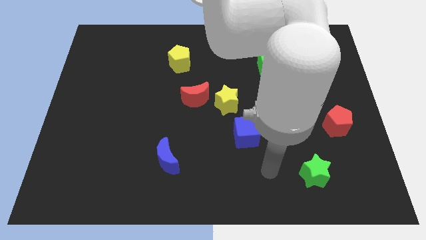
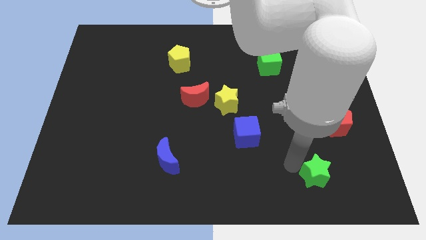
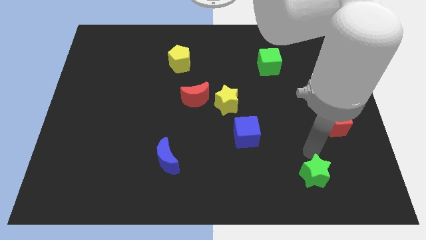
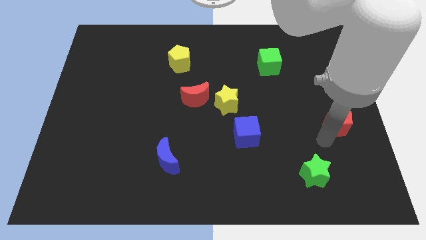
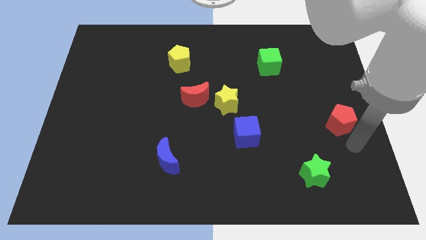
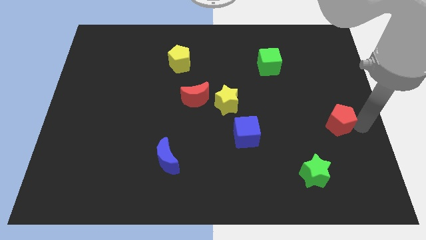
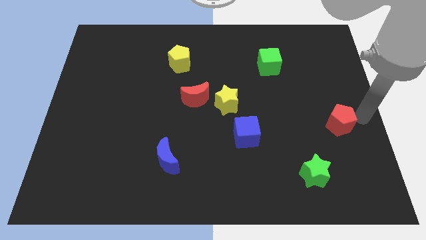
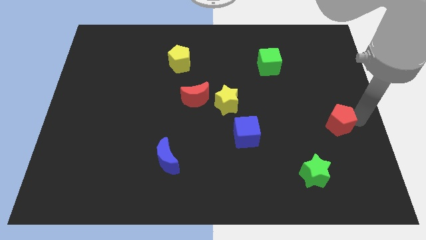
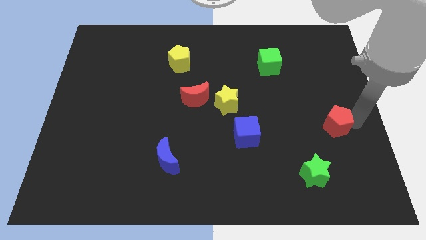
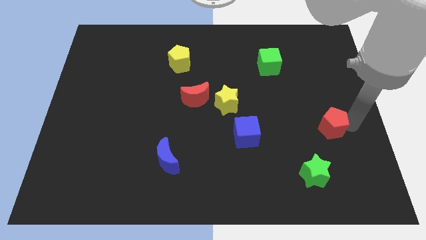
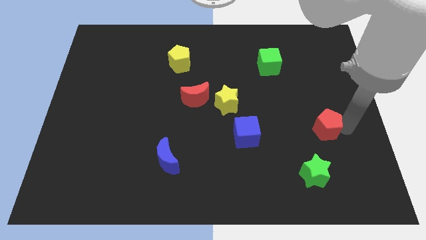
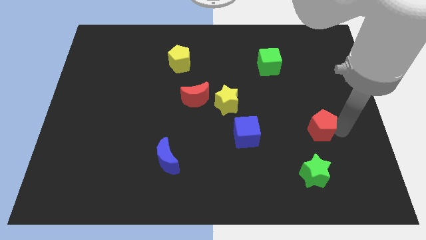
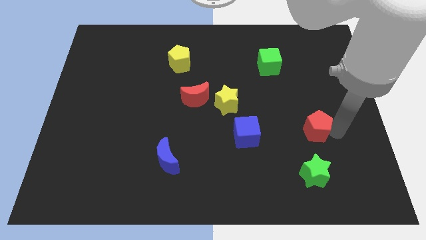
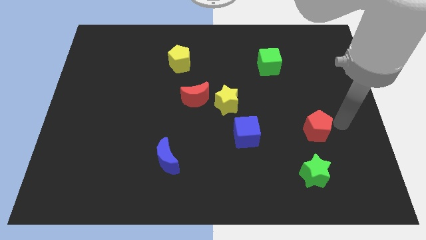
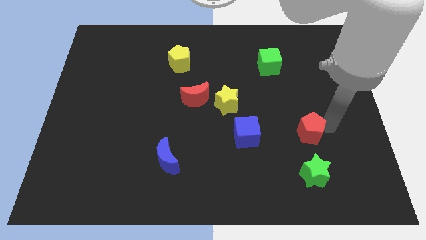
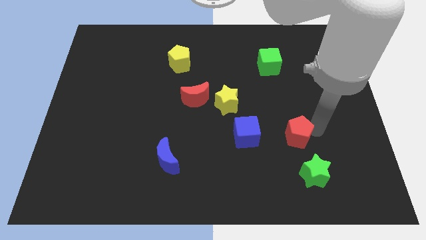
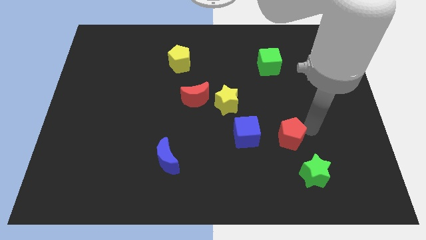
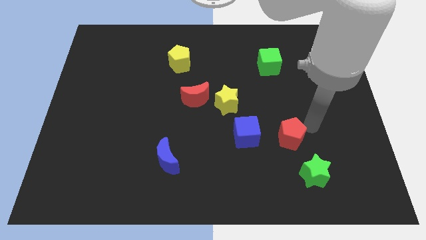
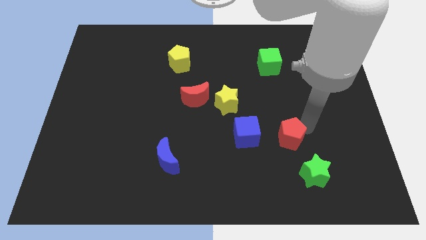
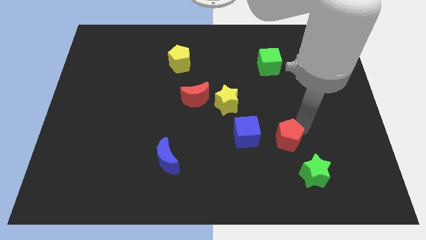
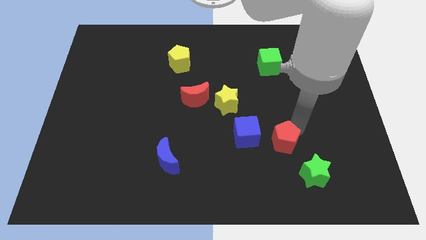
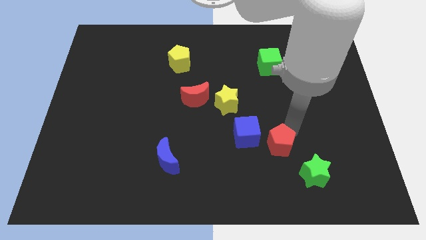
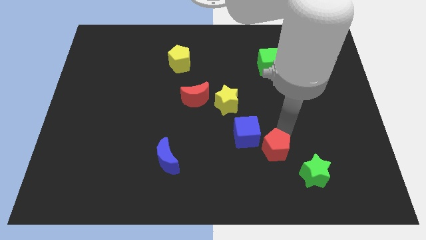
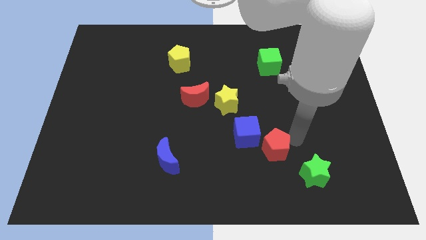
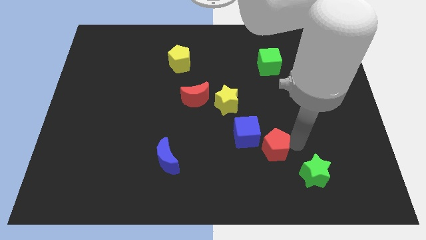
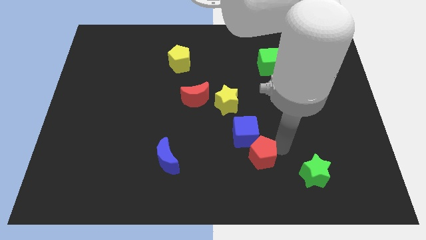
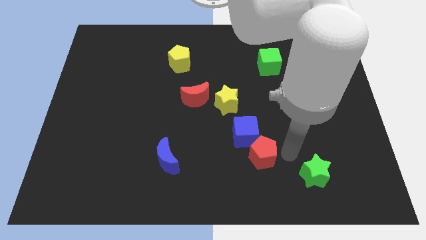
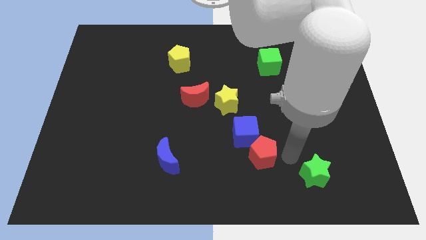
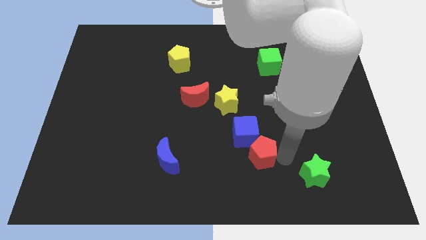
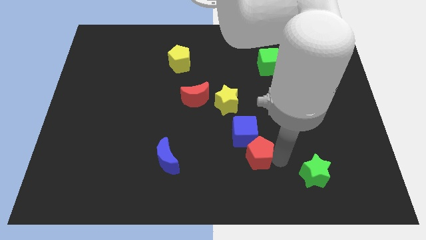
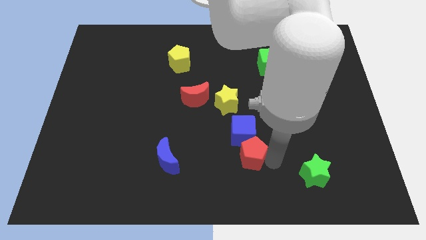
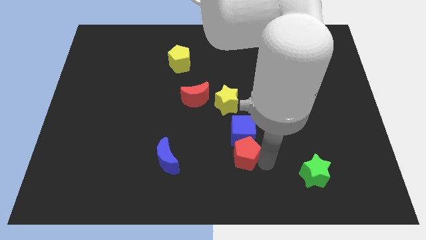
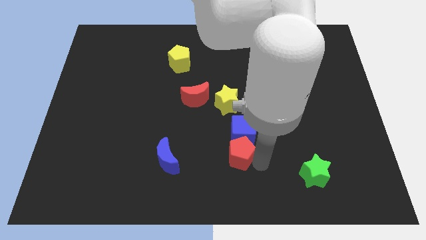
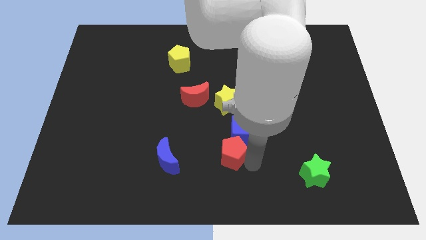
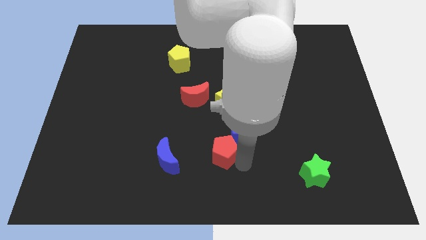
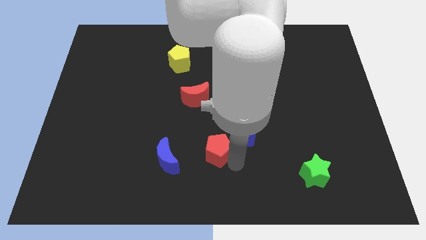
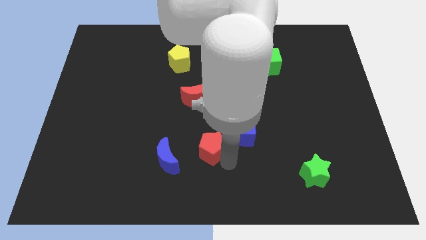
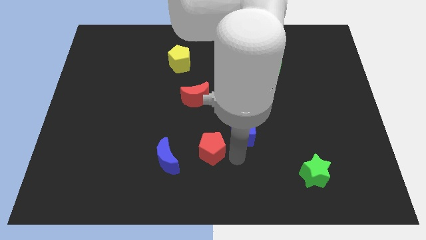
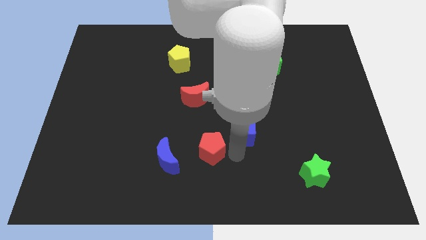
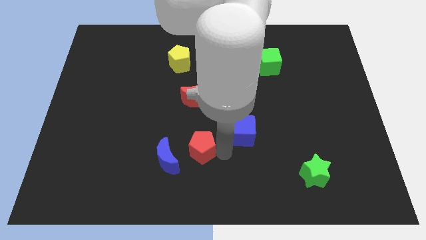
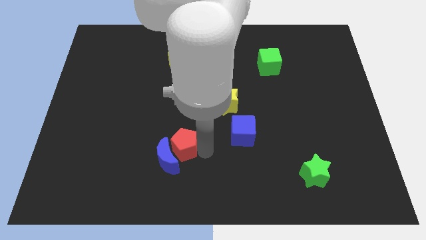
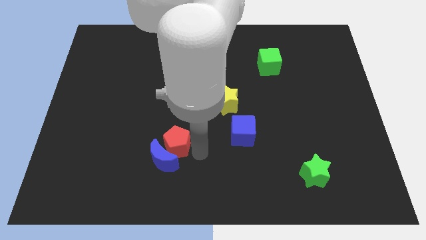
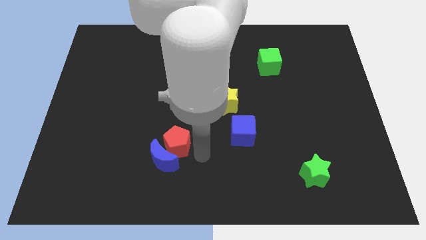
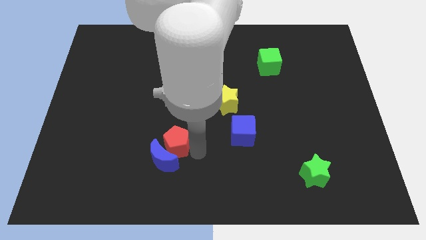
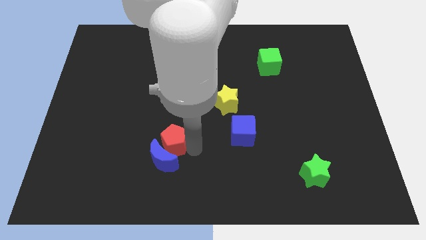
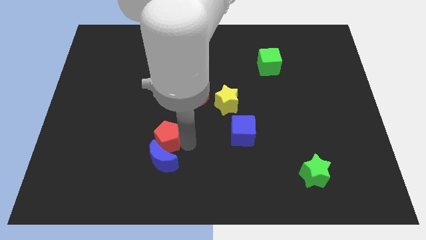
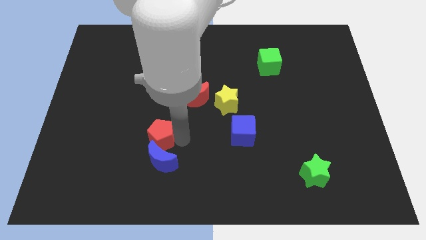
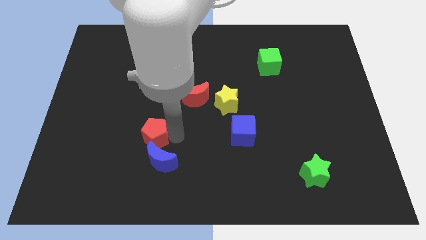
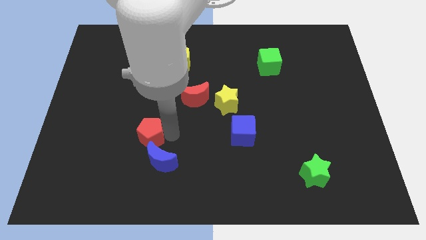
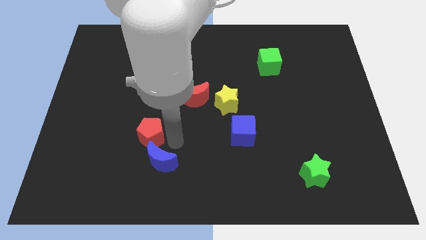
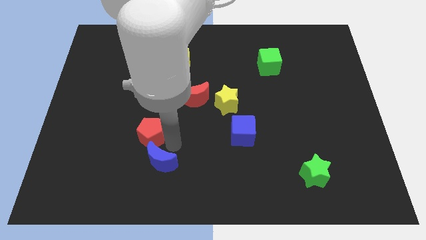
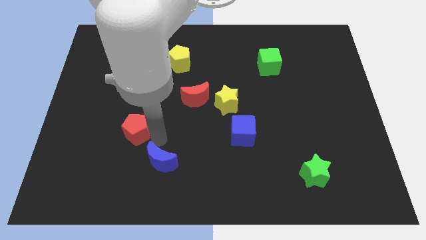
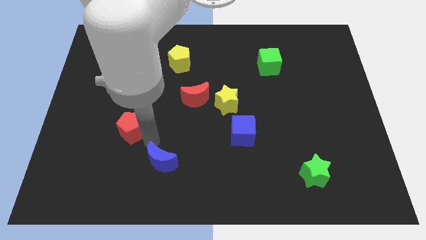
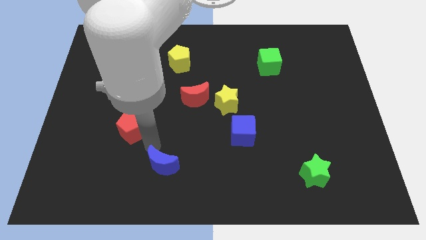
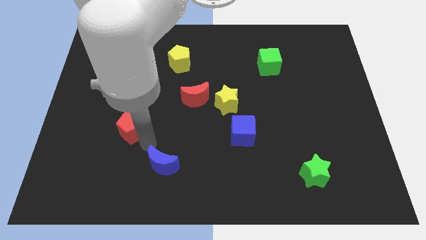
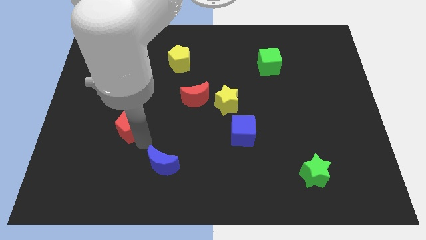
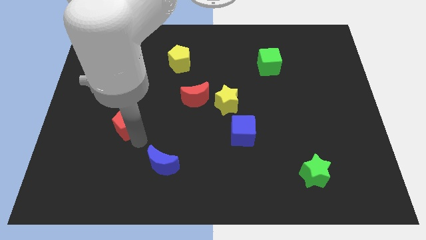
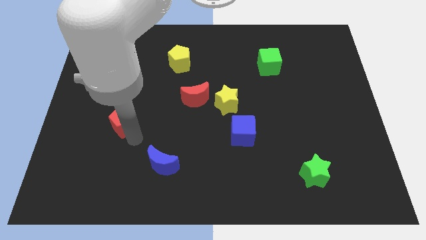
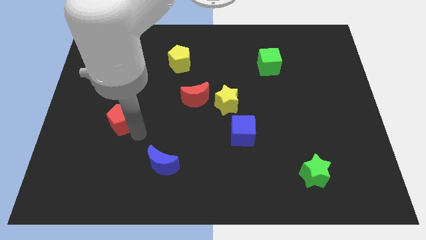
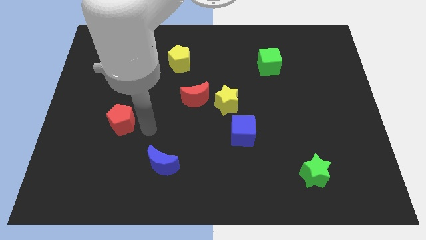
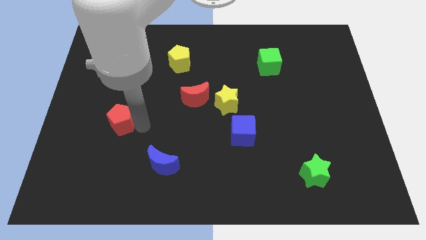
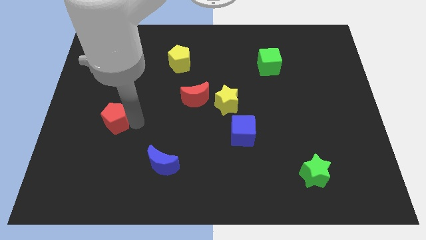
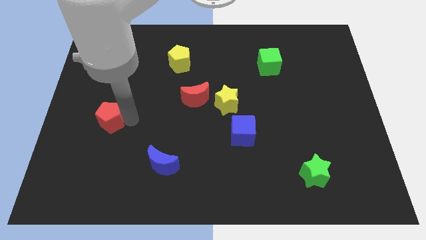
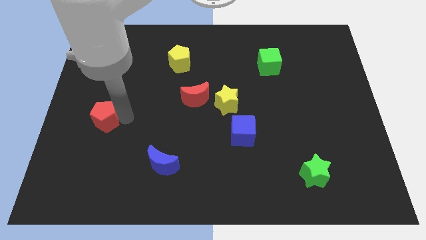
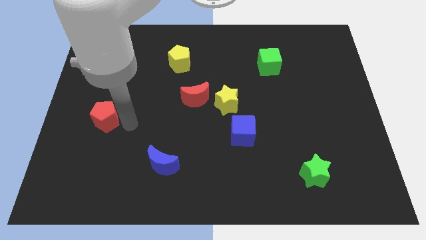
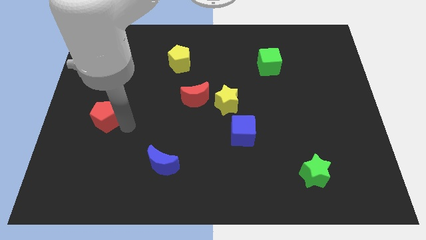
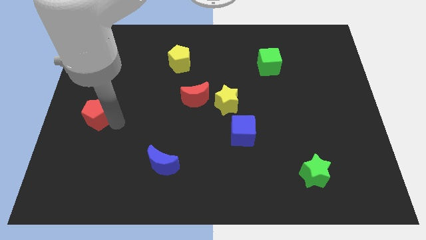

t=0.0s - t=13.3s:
push the red pentagon to the center left
